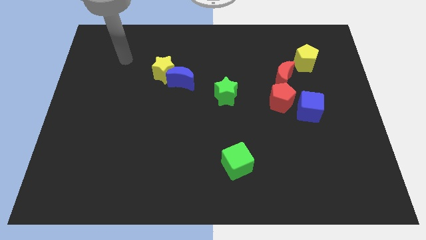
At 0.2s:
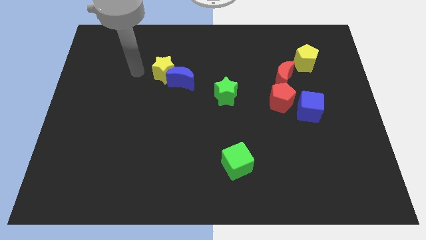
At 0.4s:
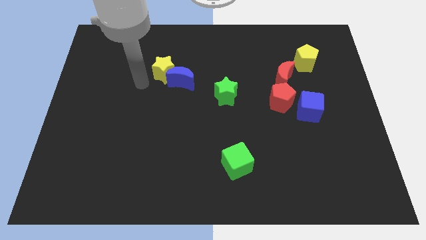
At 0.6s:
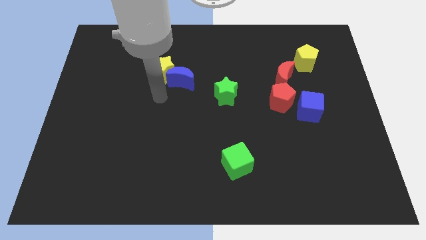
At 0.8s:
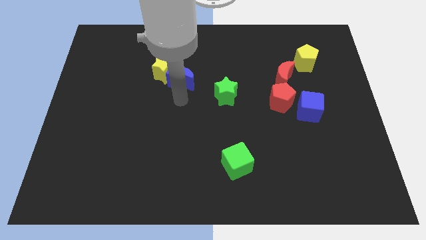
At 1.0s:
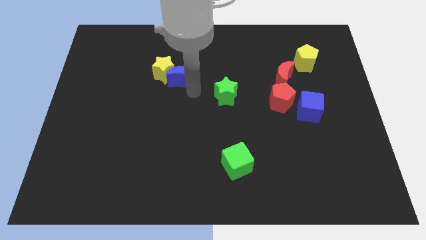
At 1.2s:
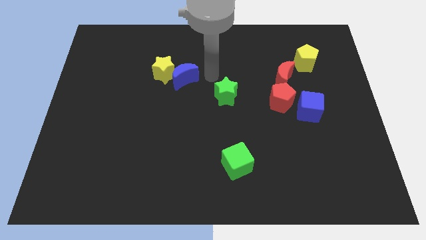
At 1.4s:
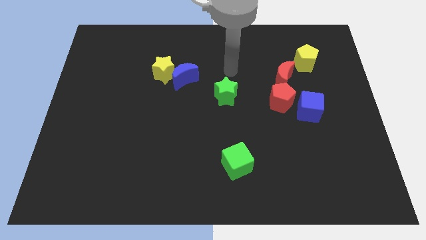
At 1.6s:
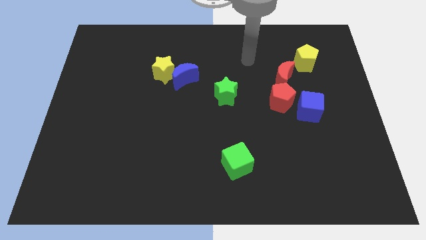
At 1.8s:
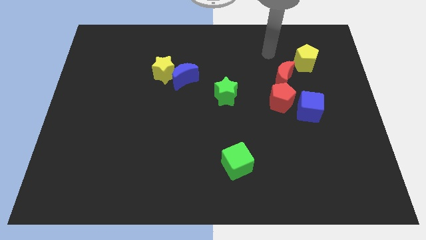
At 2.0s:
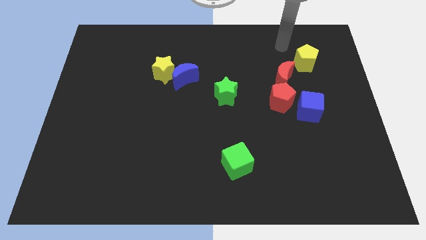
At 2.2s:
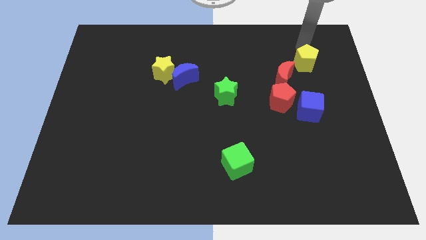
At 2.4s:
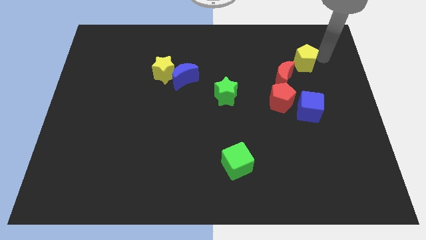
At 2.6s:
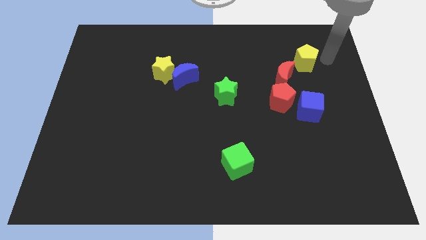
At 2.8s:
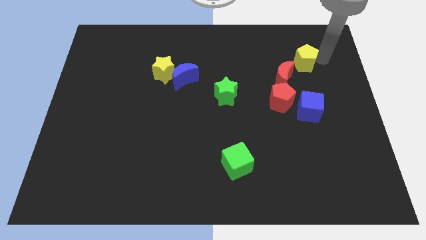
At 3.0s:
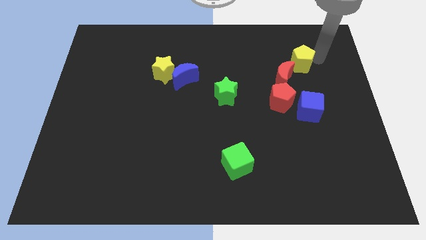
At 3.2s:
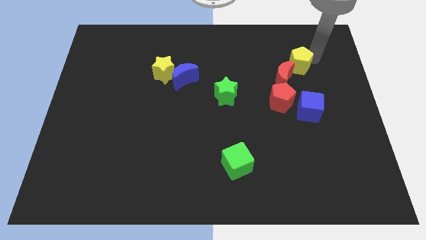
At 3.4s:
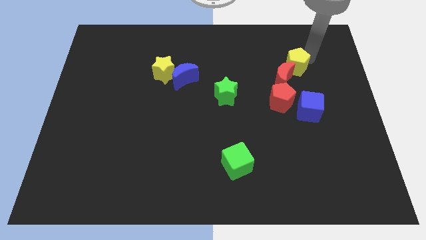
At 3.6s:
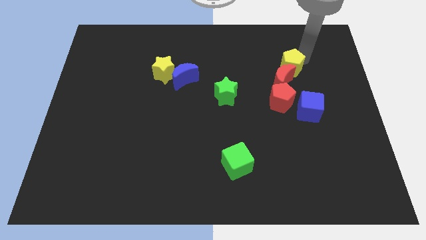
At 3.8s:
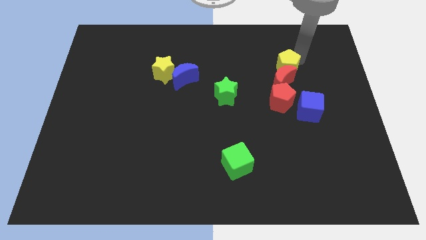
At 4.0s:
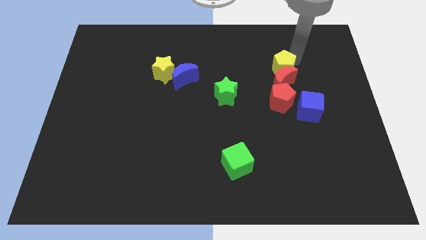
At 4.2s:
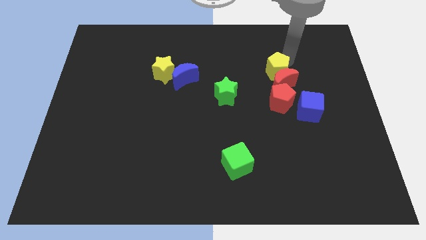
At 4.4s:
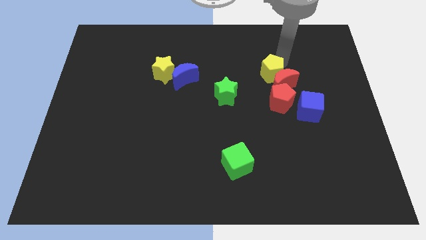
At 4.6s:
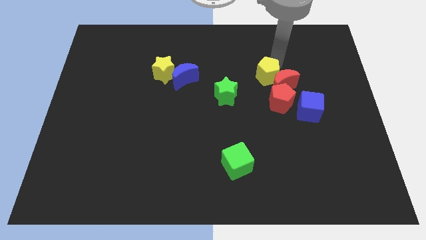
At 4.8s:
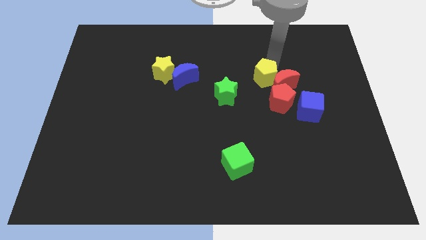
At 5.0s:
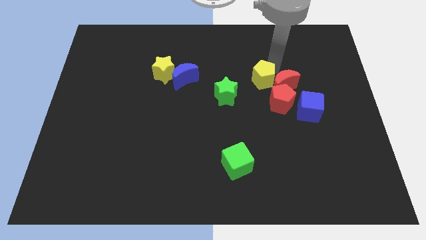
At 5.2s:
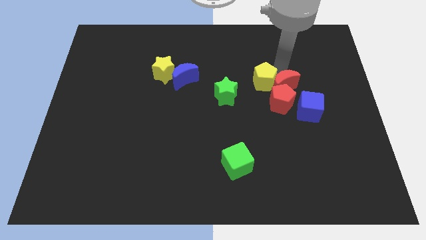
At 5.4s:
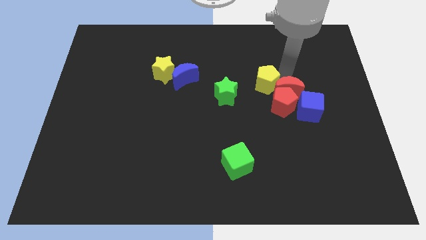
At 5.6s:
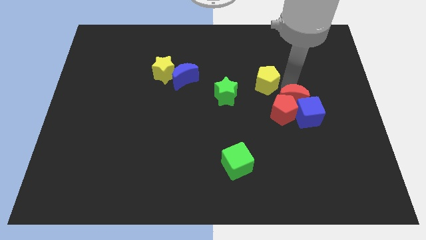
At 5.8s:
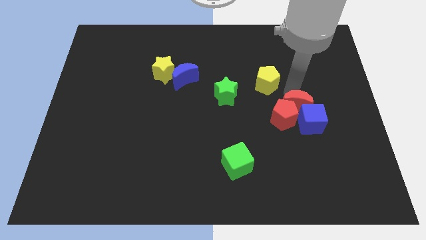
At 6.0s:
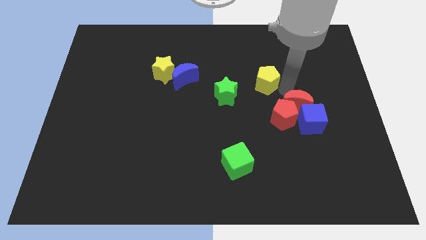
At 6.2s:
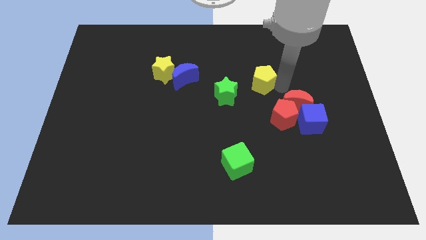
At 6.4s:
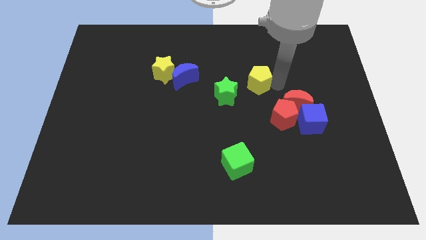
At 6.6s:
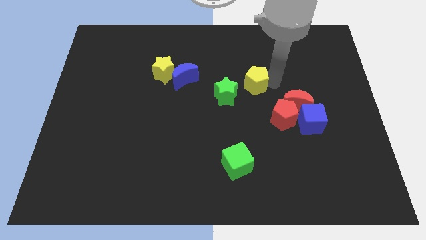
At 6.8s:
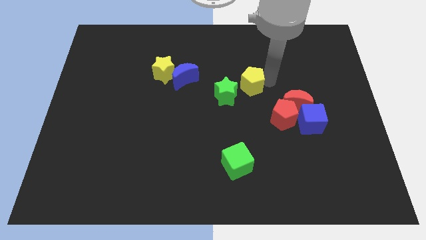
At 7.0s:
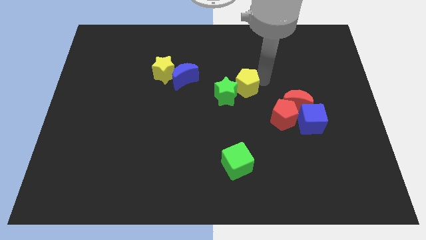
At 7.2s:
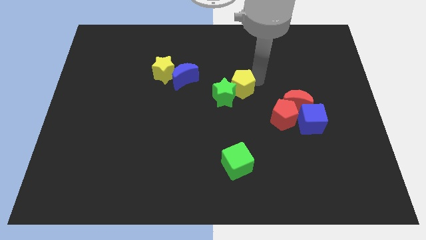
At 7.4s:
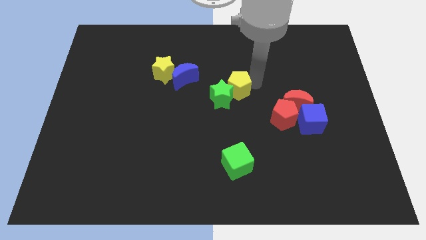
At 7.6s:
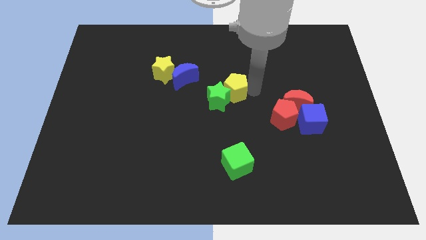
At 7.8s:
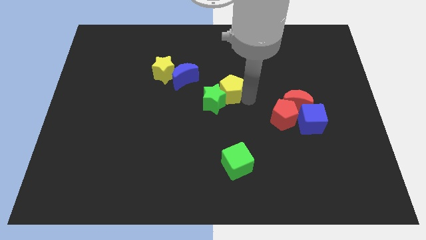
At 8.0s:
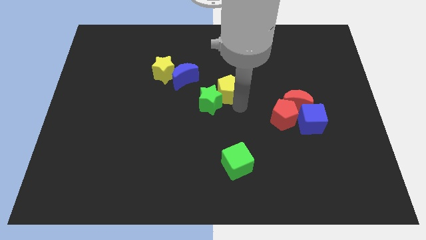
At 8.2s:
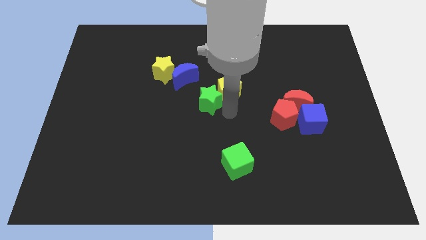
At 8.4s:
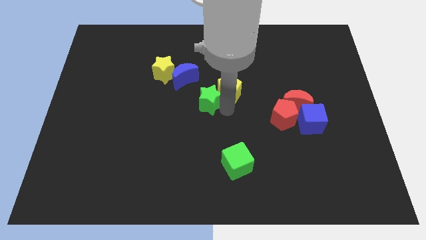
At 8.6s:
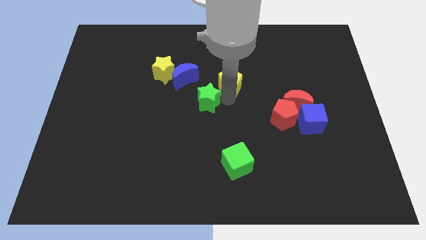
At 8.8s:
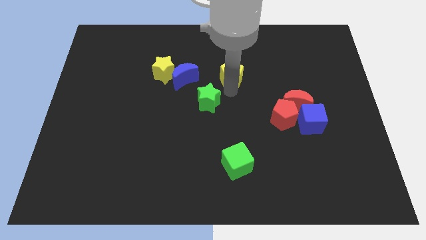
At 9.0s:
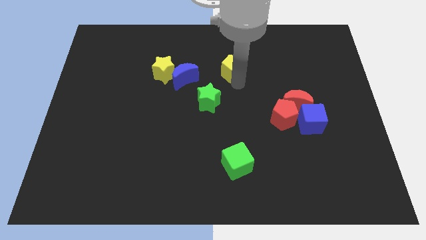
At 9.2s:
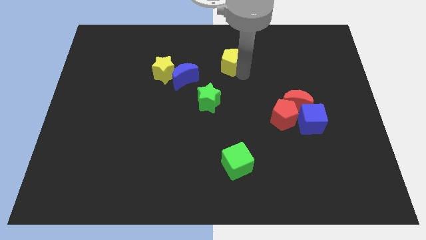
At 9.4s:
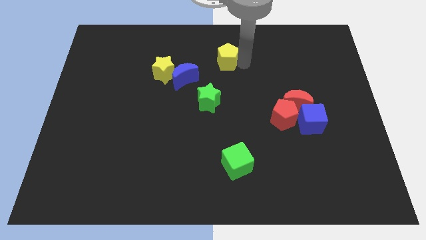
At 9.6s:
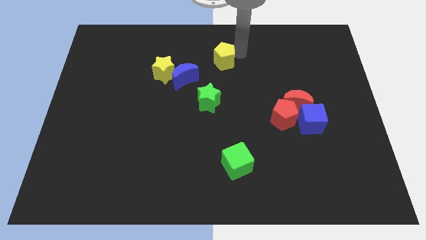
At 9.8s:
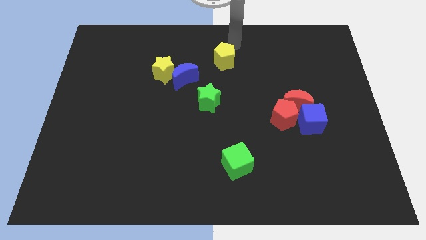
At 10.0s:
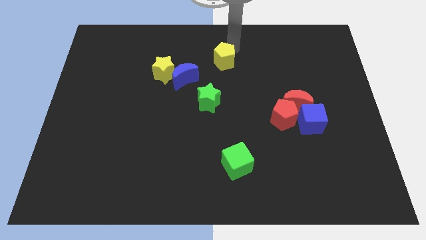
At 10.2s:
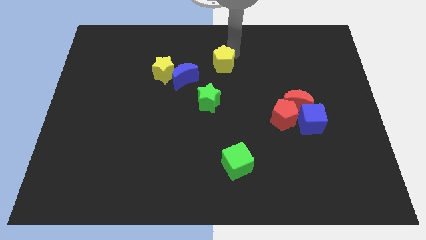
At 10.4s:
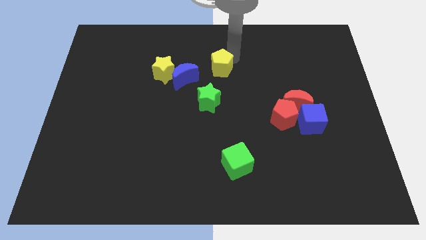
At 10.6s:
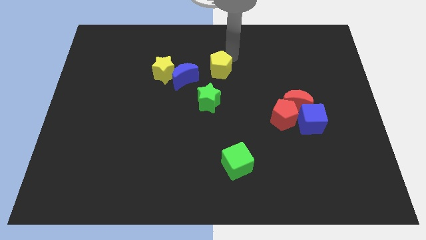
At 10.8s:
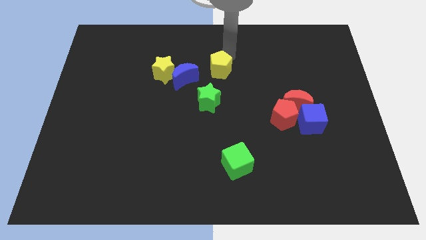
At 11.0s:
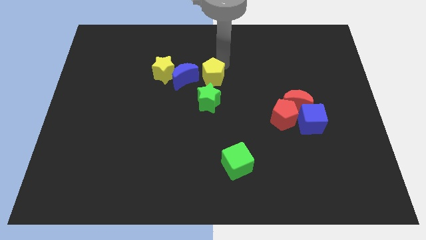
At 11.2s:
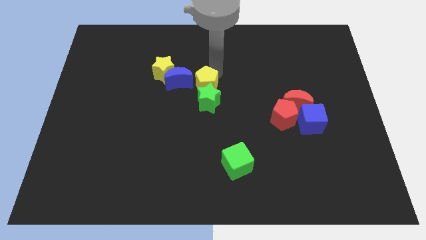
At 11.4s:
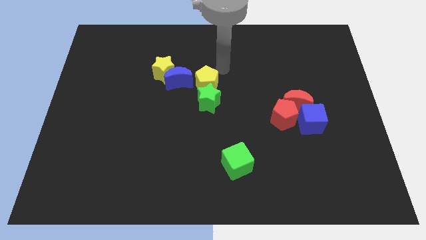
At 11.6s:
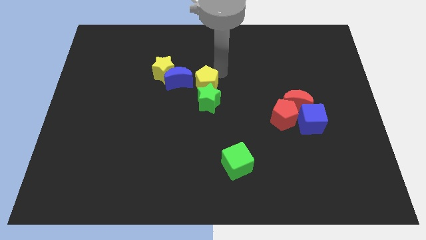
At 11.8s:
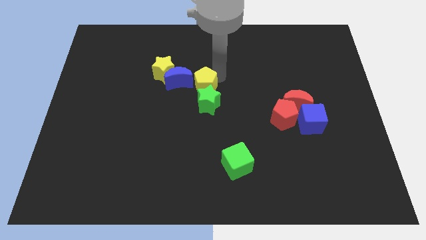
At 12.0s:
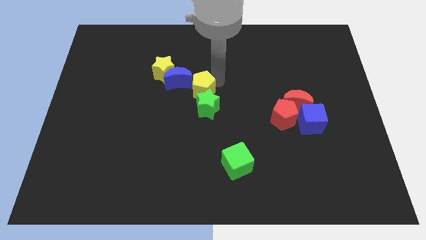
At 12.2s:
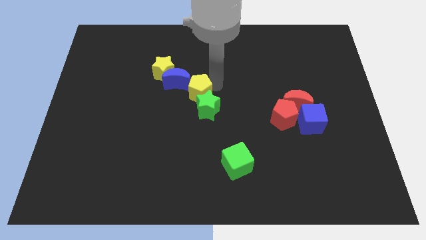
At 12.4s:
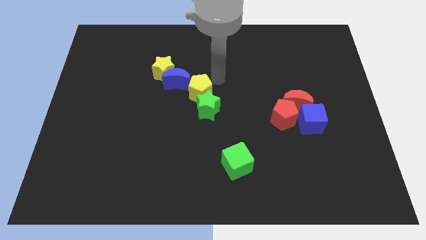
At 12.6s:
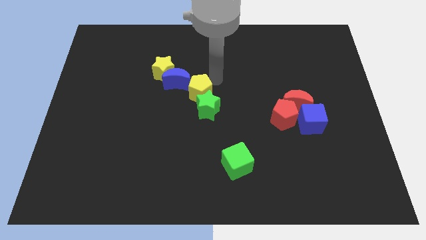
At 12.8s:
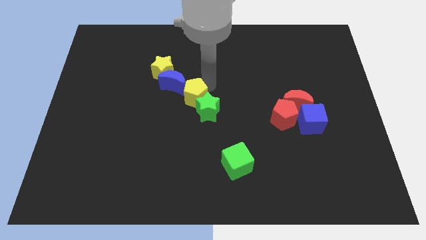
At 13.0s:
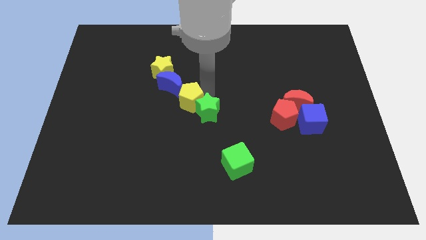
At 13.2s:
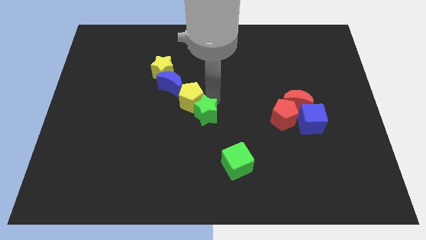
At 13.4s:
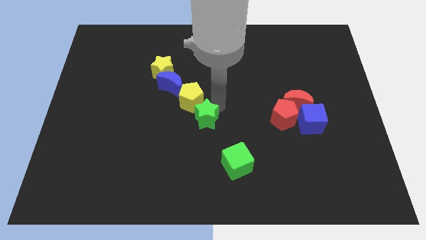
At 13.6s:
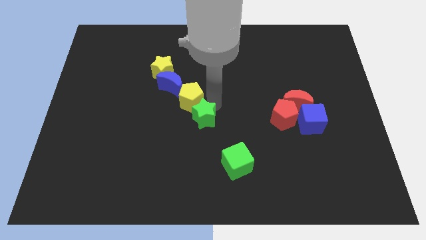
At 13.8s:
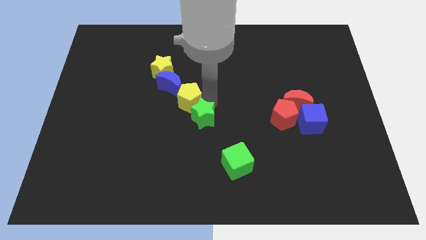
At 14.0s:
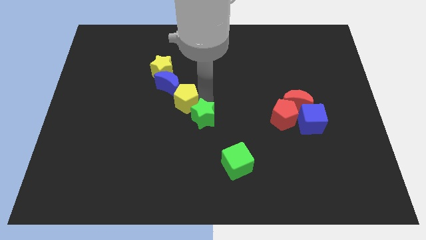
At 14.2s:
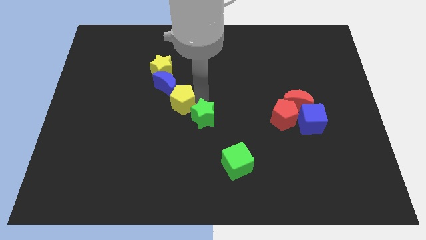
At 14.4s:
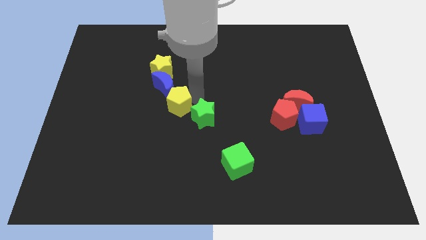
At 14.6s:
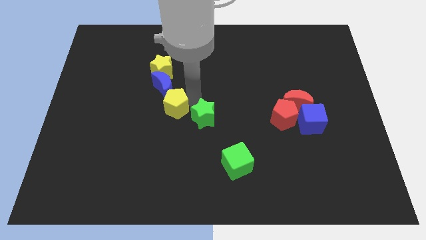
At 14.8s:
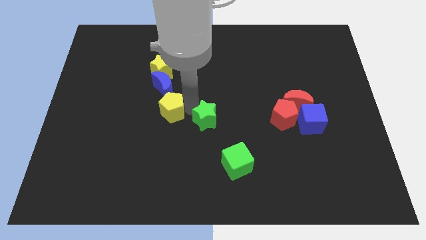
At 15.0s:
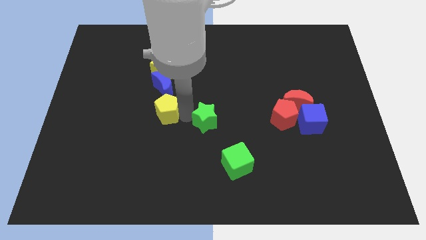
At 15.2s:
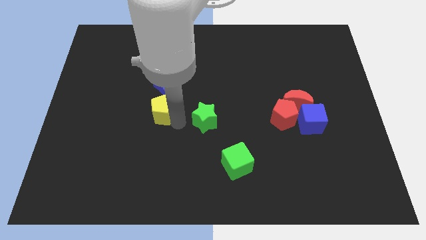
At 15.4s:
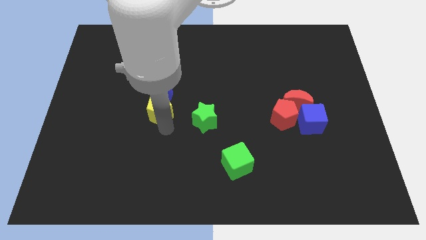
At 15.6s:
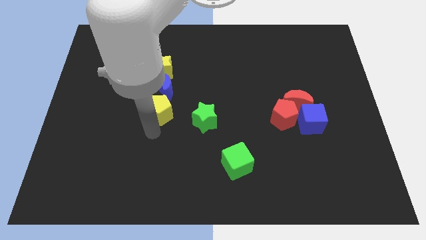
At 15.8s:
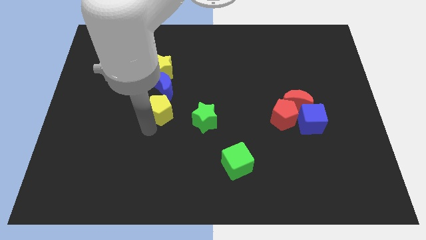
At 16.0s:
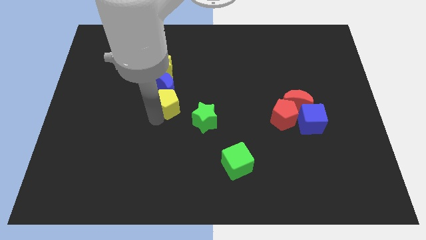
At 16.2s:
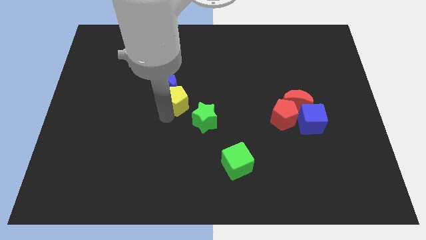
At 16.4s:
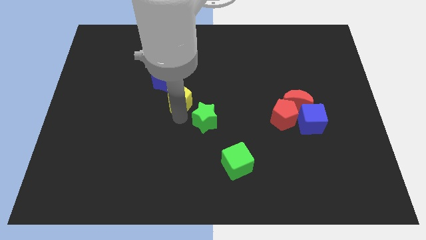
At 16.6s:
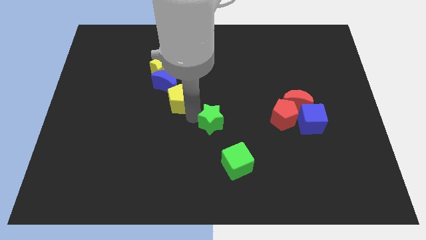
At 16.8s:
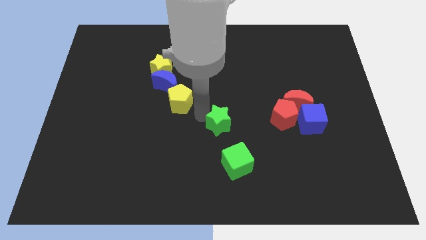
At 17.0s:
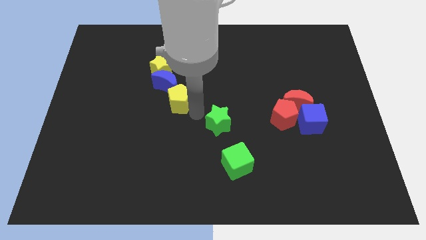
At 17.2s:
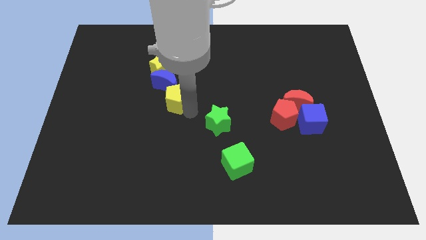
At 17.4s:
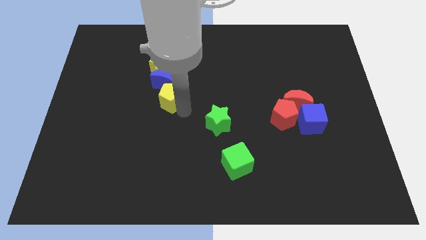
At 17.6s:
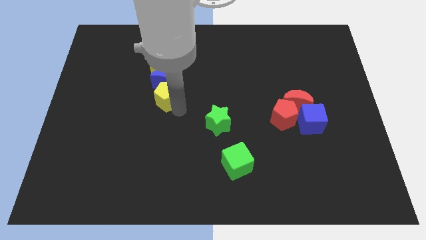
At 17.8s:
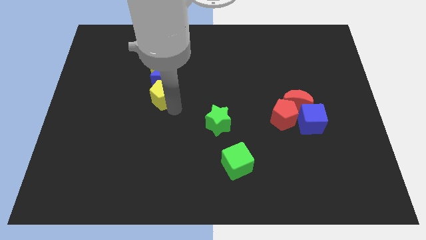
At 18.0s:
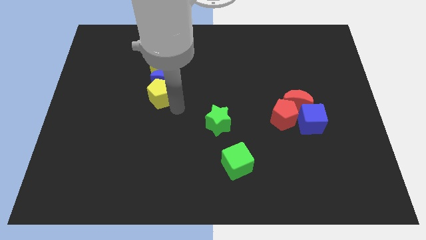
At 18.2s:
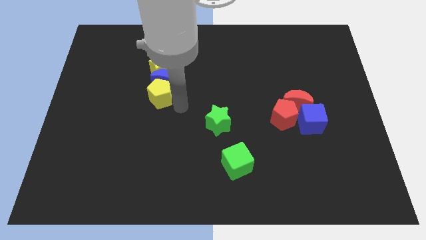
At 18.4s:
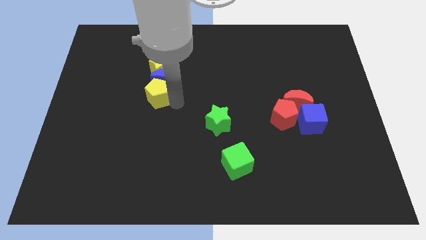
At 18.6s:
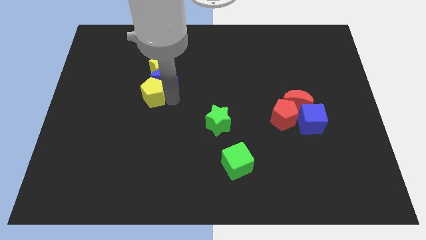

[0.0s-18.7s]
move the yellow pentagon to the bottom left side of the yellow star
